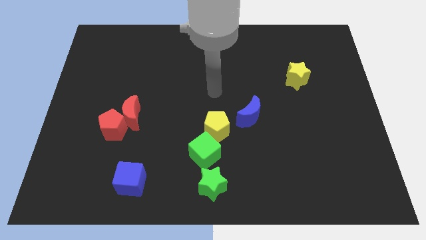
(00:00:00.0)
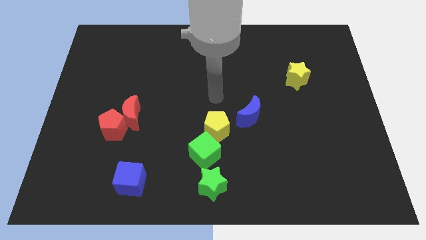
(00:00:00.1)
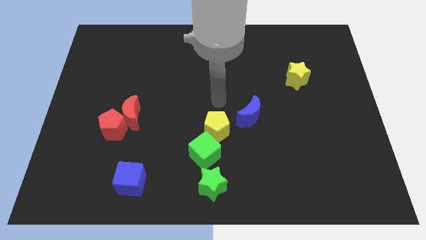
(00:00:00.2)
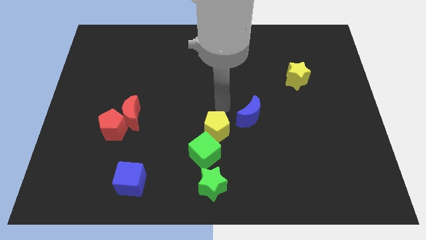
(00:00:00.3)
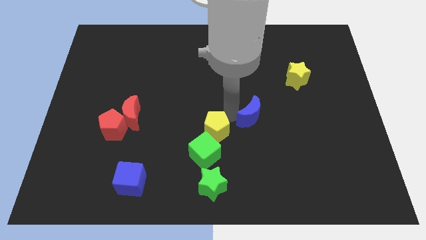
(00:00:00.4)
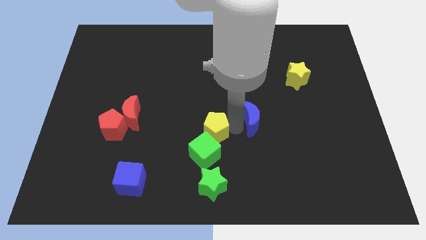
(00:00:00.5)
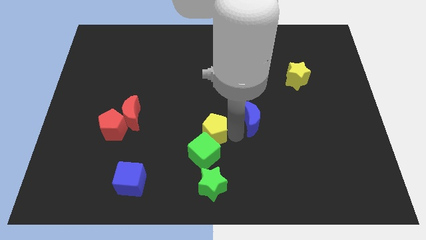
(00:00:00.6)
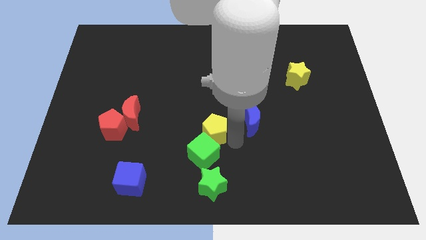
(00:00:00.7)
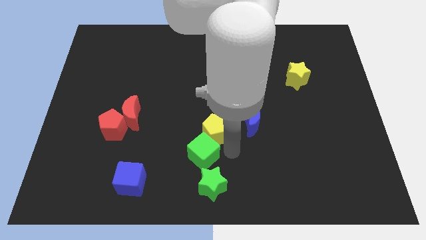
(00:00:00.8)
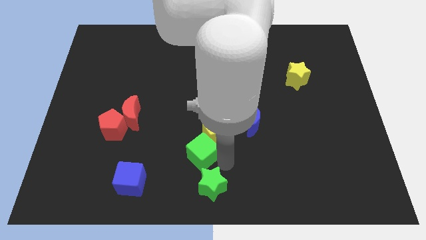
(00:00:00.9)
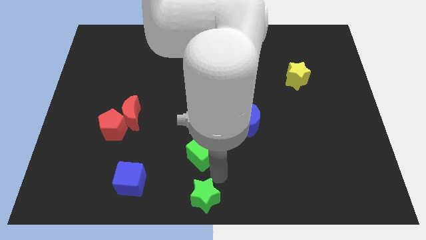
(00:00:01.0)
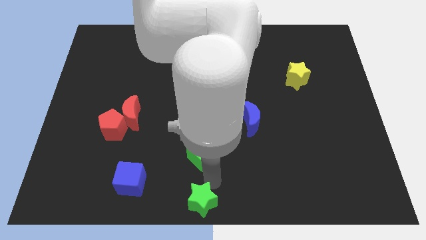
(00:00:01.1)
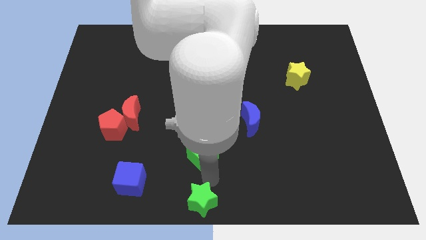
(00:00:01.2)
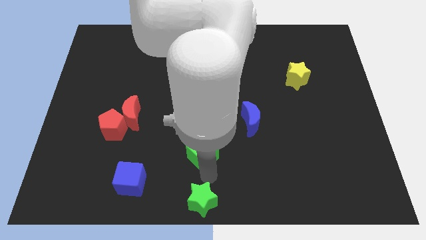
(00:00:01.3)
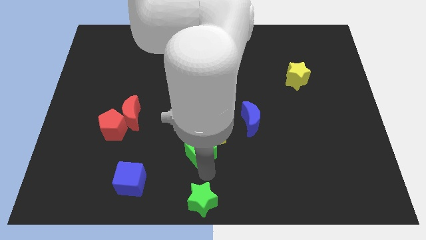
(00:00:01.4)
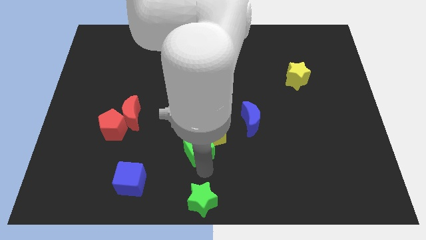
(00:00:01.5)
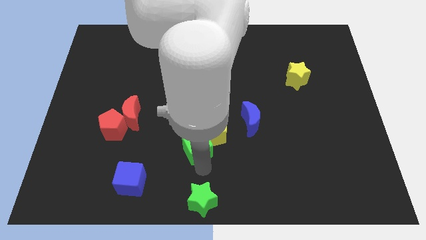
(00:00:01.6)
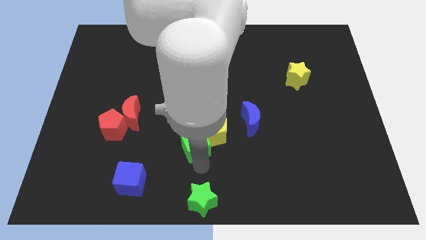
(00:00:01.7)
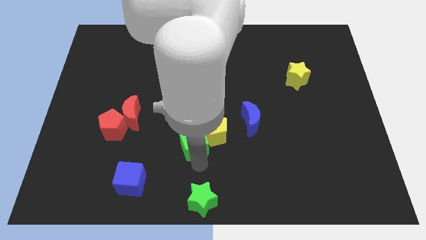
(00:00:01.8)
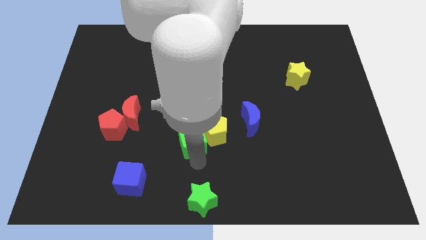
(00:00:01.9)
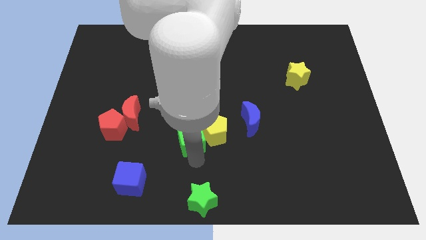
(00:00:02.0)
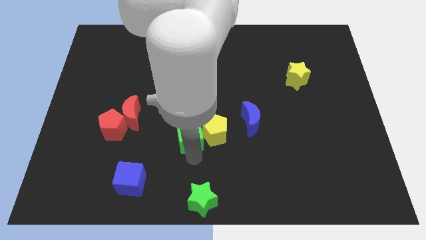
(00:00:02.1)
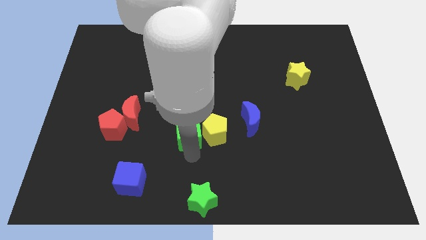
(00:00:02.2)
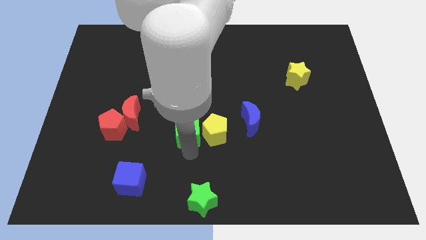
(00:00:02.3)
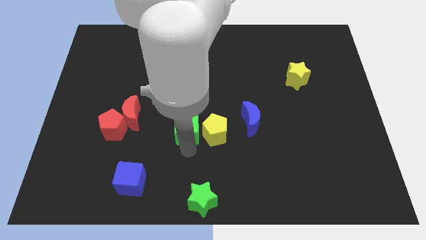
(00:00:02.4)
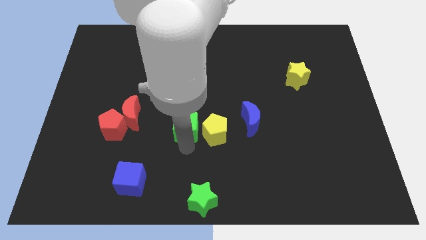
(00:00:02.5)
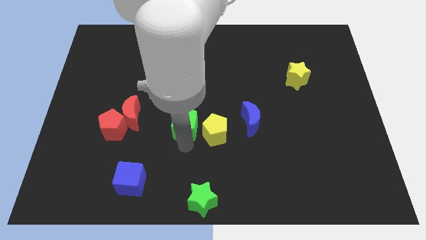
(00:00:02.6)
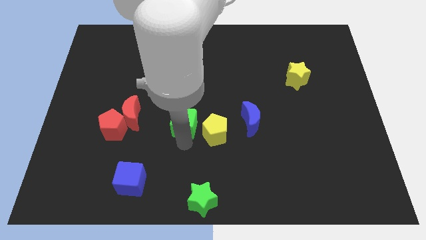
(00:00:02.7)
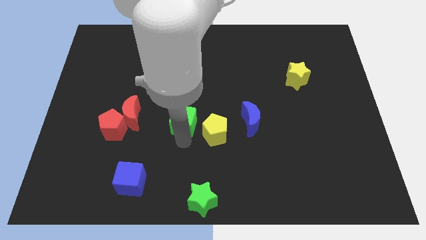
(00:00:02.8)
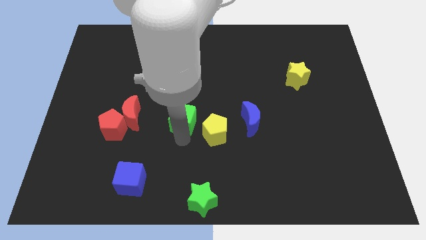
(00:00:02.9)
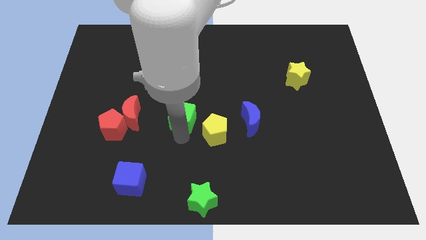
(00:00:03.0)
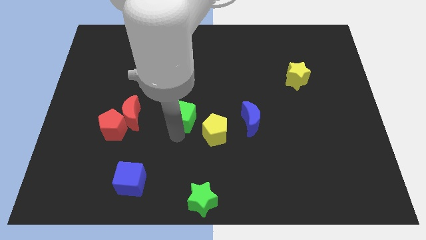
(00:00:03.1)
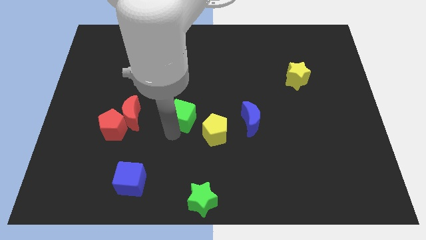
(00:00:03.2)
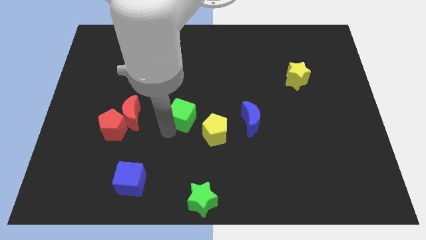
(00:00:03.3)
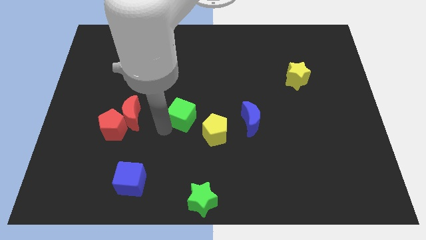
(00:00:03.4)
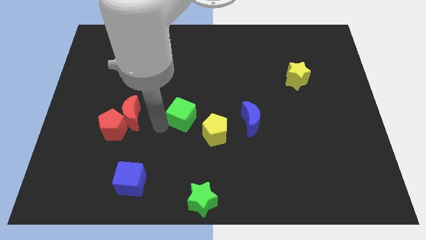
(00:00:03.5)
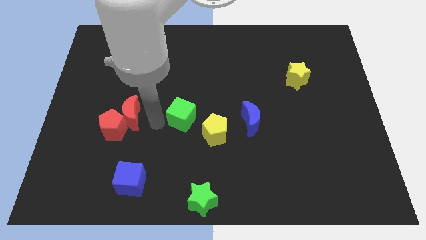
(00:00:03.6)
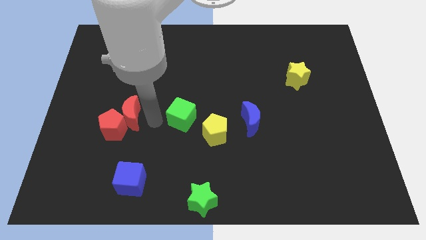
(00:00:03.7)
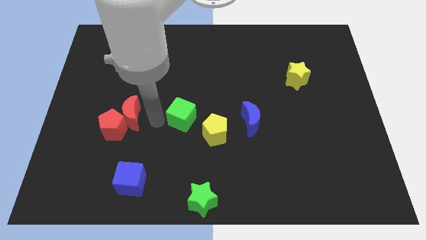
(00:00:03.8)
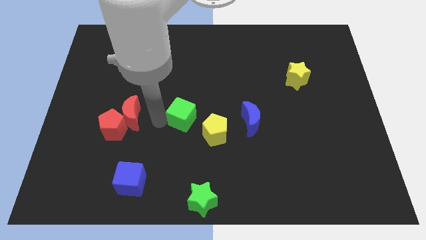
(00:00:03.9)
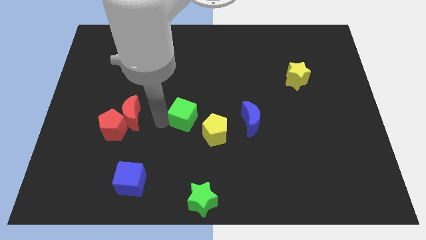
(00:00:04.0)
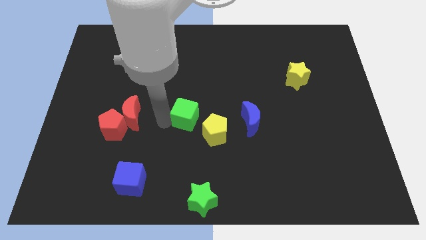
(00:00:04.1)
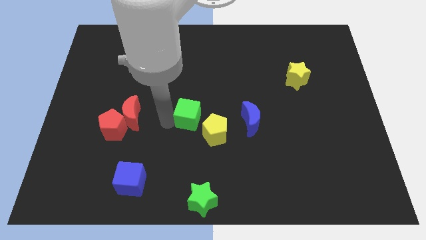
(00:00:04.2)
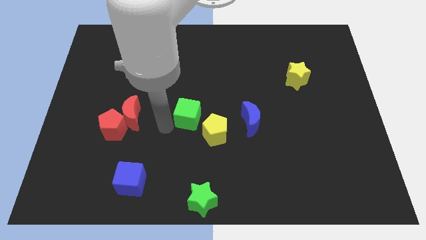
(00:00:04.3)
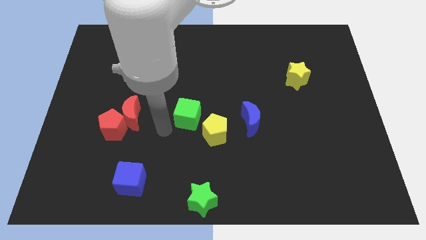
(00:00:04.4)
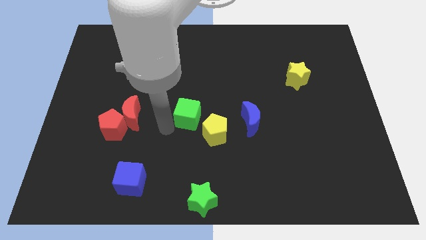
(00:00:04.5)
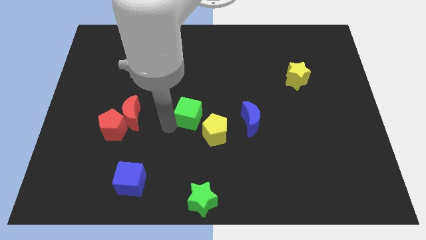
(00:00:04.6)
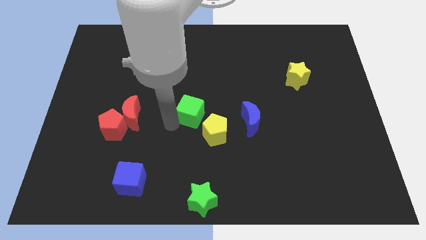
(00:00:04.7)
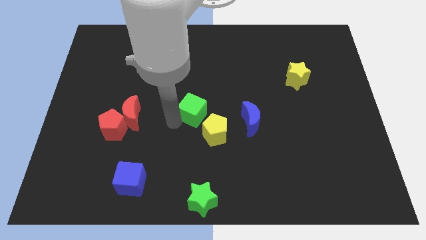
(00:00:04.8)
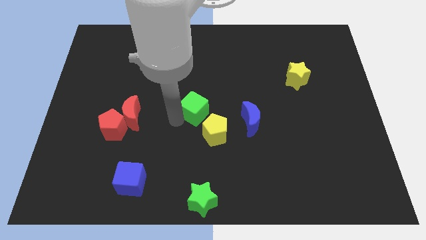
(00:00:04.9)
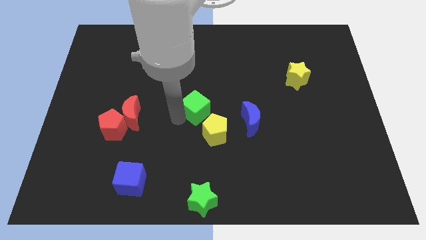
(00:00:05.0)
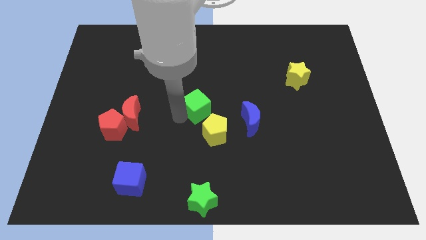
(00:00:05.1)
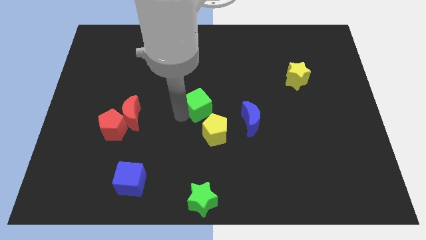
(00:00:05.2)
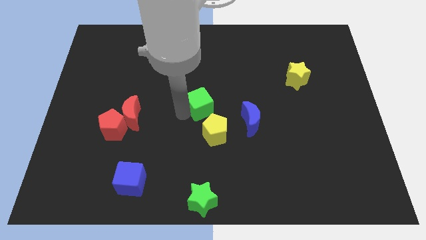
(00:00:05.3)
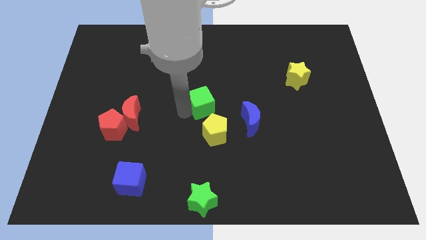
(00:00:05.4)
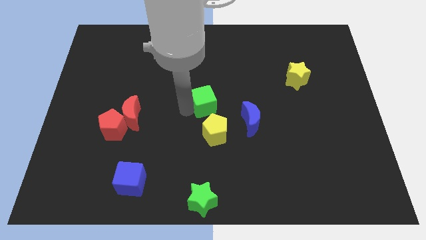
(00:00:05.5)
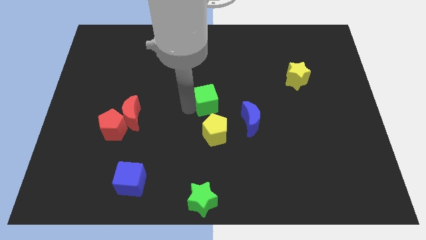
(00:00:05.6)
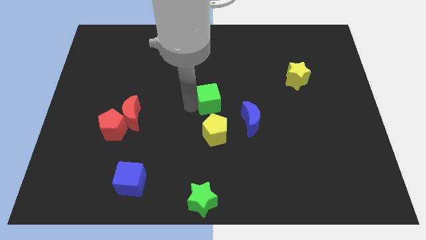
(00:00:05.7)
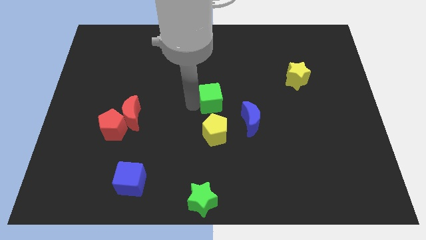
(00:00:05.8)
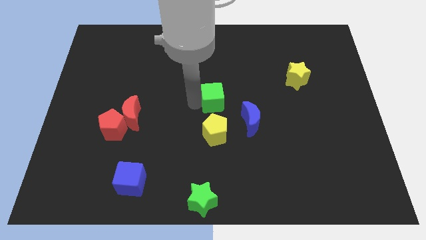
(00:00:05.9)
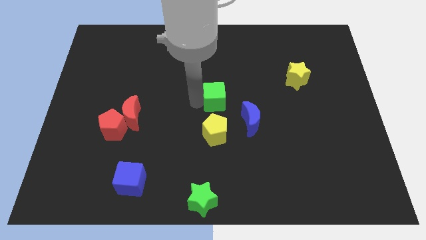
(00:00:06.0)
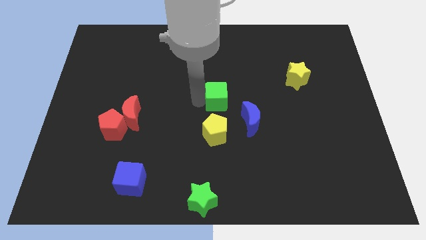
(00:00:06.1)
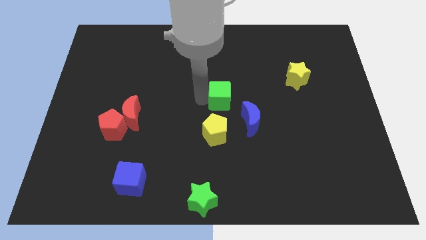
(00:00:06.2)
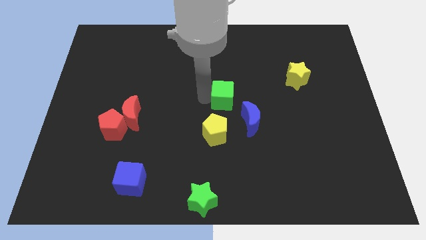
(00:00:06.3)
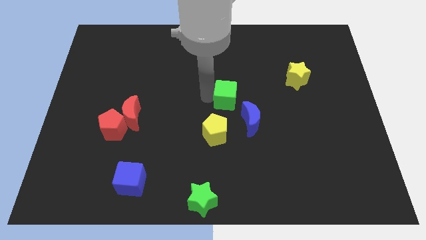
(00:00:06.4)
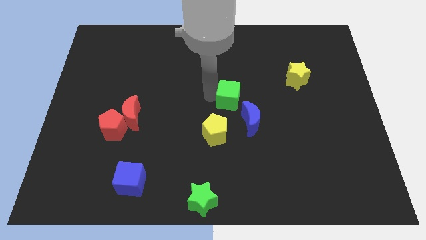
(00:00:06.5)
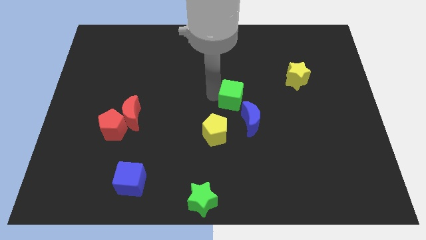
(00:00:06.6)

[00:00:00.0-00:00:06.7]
move the green cube diagonally up and to the right of the yellow pentagon
